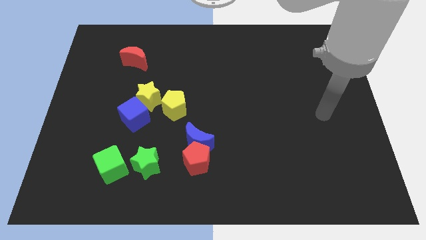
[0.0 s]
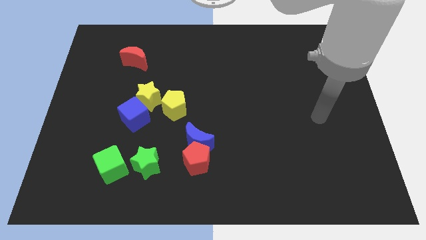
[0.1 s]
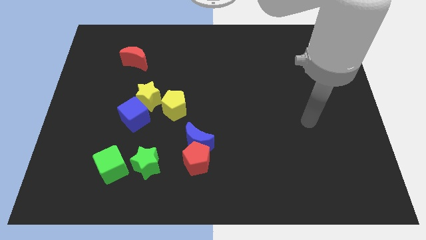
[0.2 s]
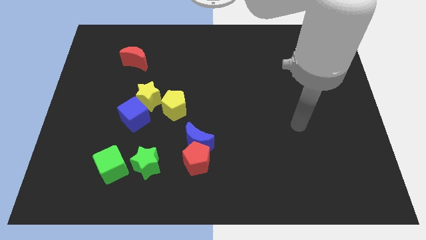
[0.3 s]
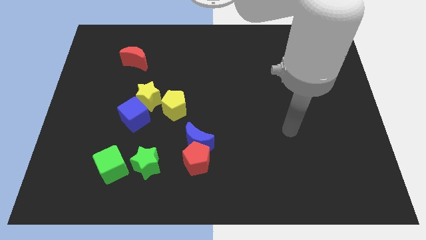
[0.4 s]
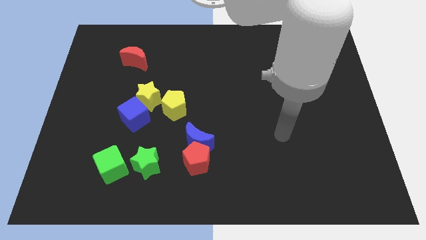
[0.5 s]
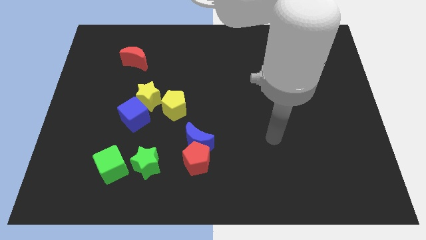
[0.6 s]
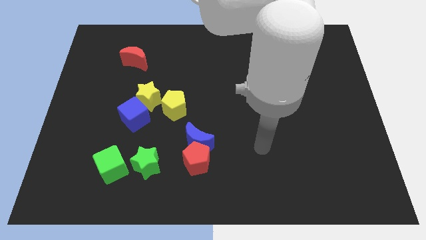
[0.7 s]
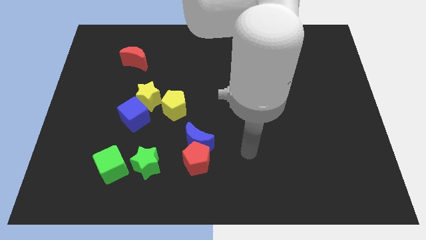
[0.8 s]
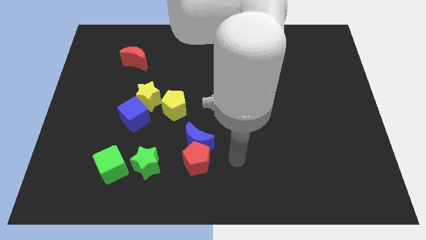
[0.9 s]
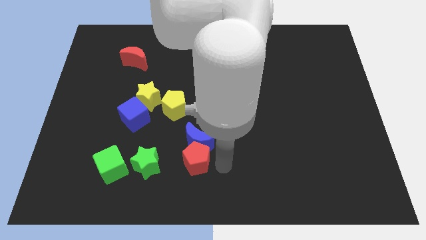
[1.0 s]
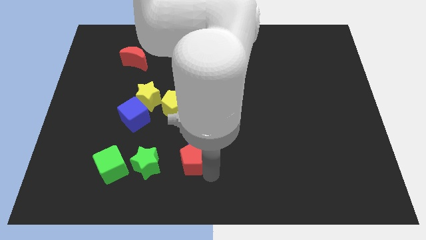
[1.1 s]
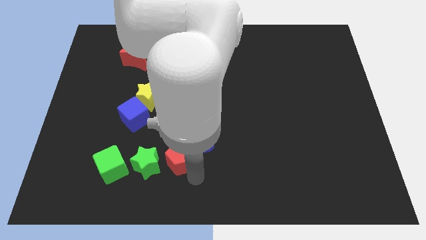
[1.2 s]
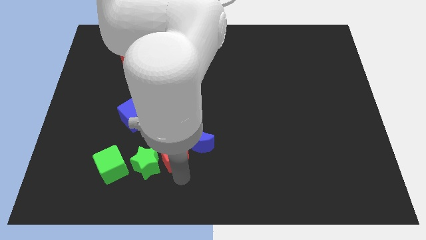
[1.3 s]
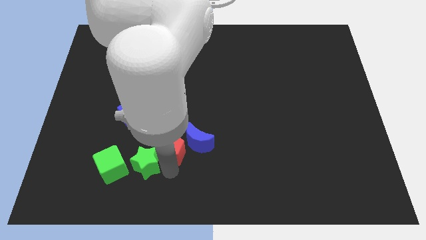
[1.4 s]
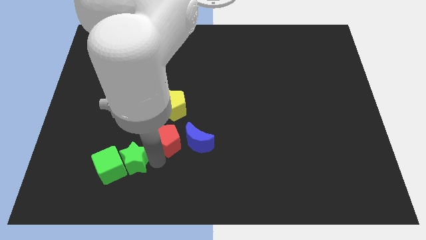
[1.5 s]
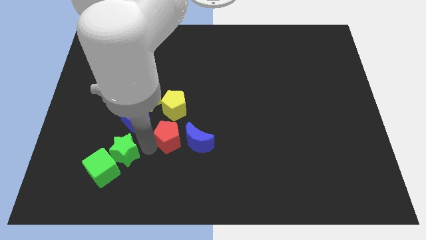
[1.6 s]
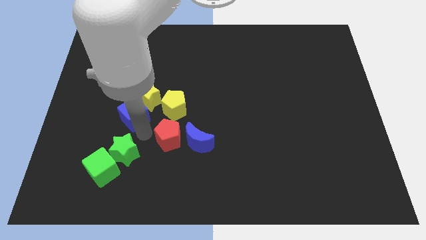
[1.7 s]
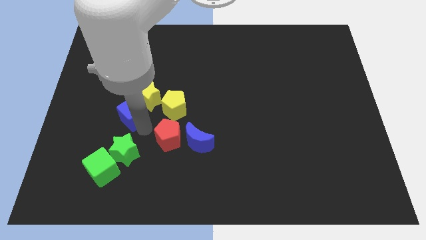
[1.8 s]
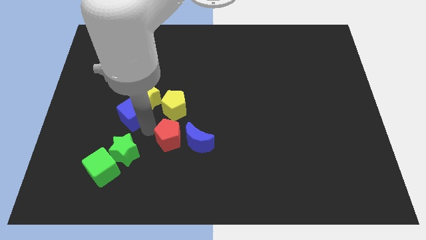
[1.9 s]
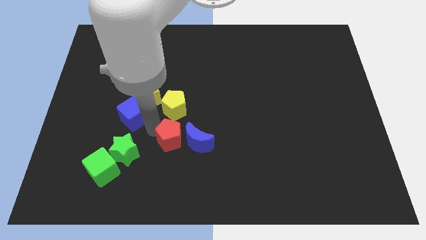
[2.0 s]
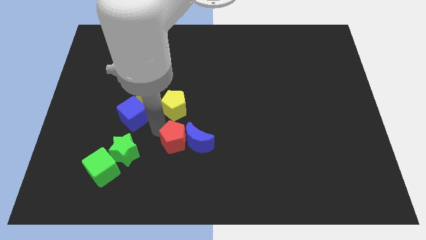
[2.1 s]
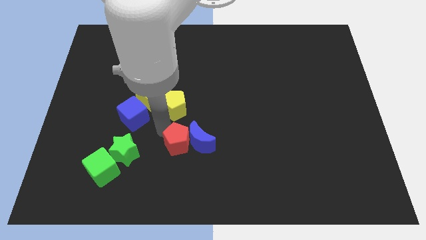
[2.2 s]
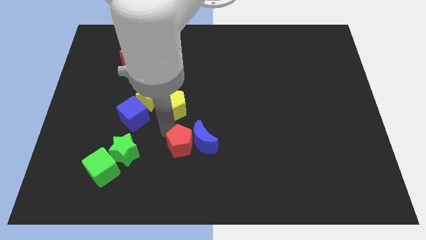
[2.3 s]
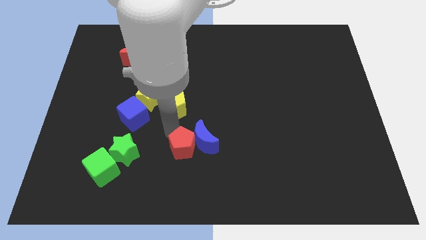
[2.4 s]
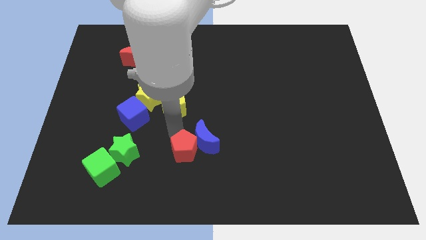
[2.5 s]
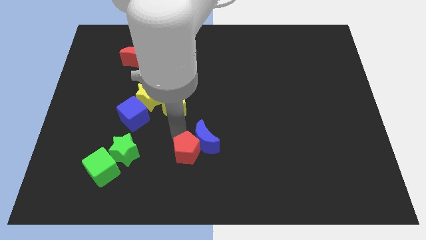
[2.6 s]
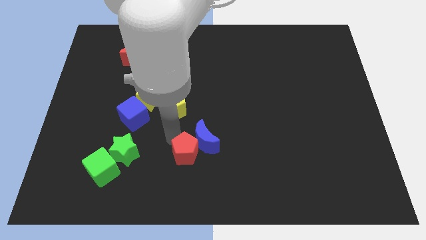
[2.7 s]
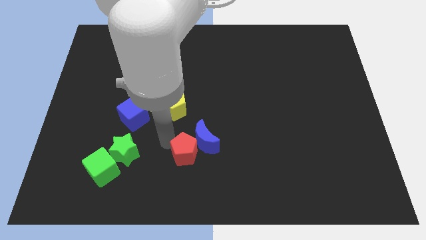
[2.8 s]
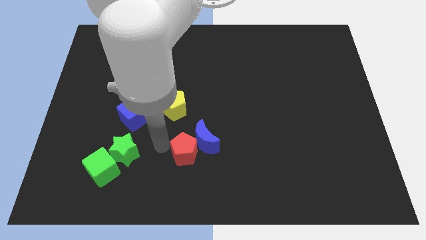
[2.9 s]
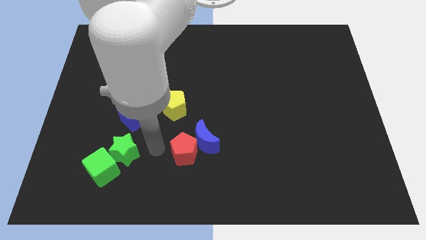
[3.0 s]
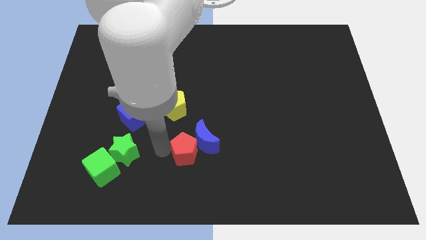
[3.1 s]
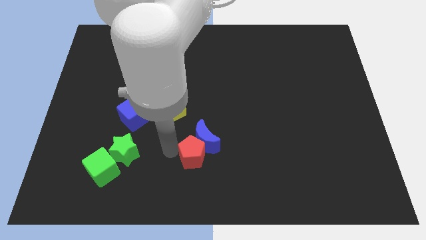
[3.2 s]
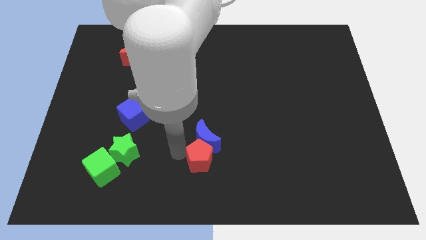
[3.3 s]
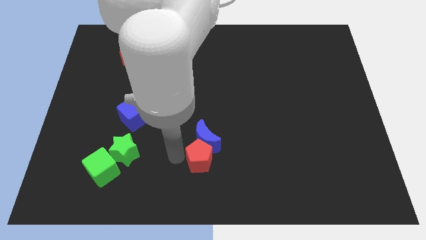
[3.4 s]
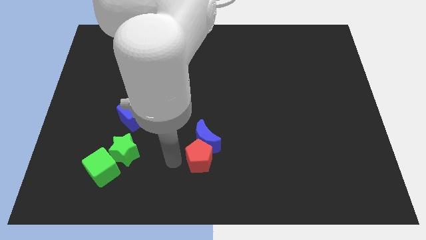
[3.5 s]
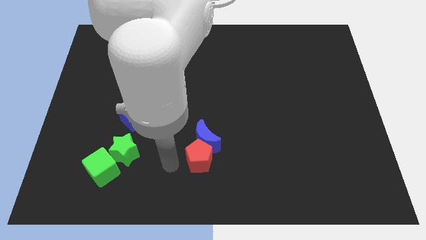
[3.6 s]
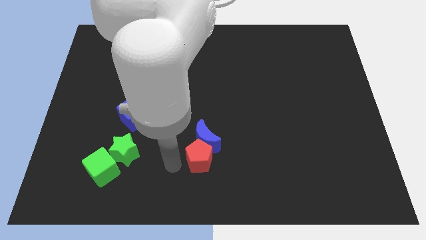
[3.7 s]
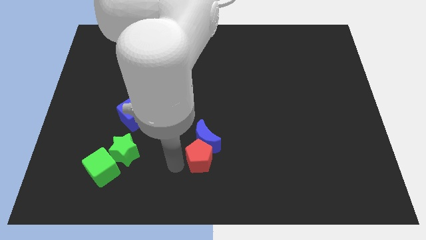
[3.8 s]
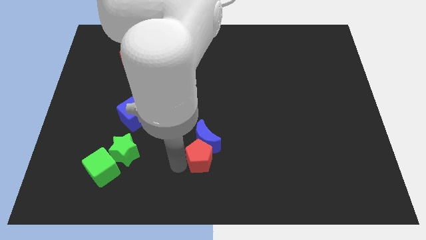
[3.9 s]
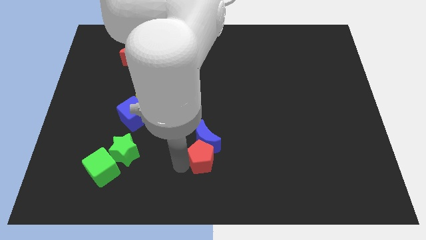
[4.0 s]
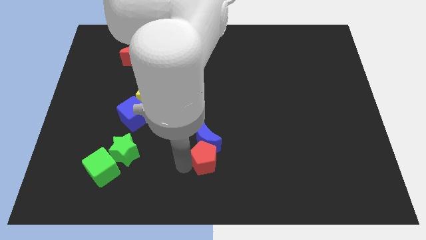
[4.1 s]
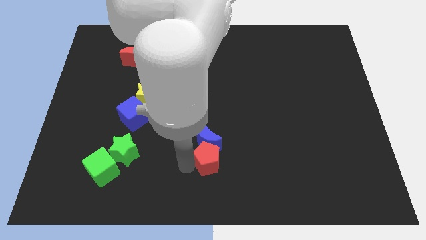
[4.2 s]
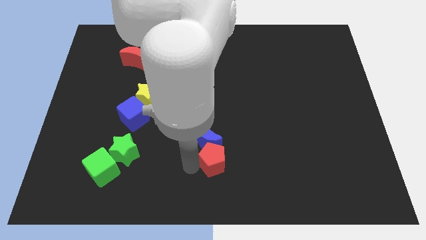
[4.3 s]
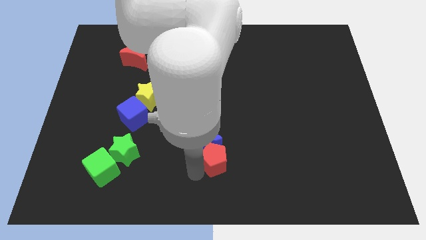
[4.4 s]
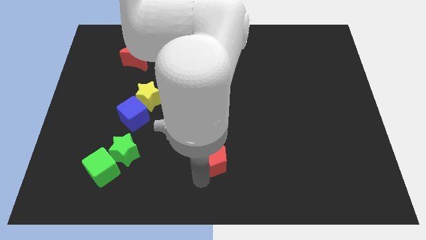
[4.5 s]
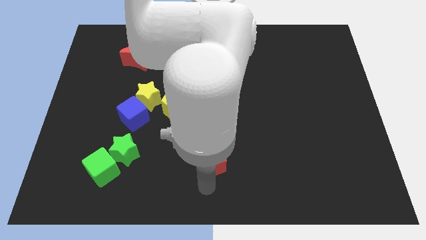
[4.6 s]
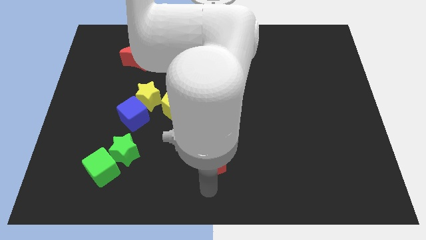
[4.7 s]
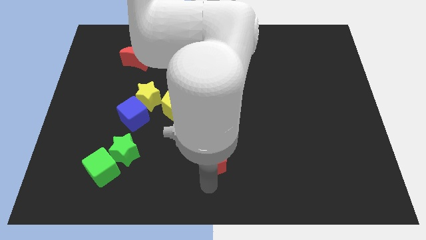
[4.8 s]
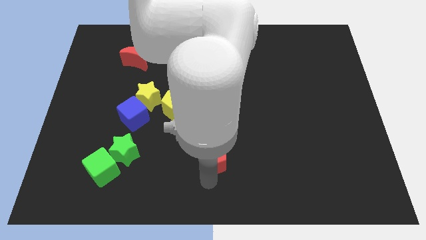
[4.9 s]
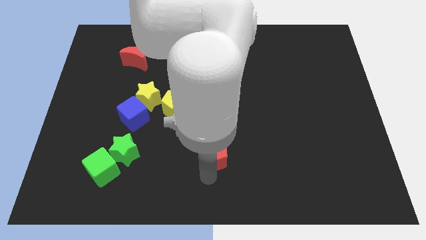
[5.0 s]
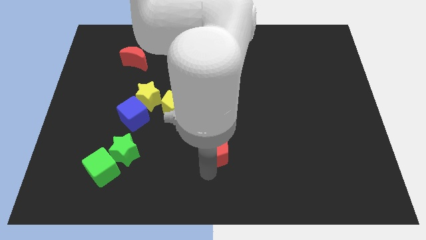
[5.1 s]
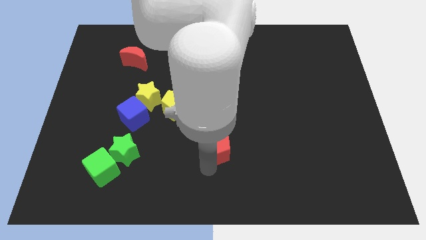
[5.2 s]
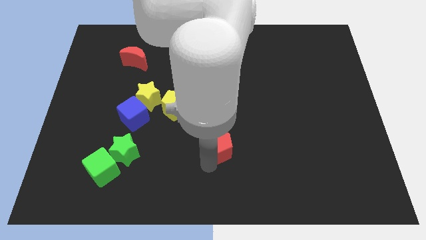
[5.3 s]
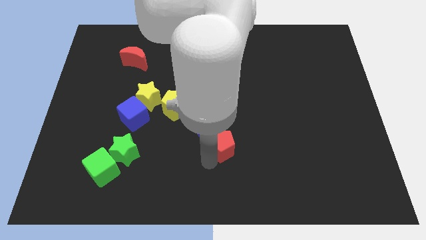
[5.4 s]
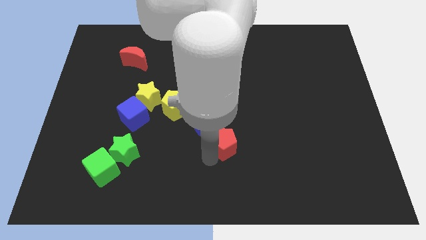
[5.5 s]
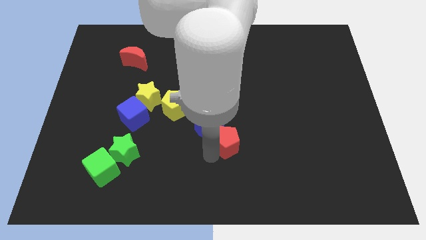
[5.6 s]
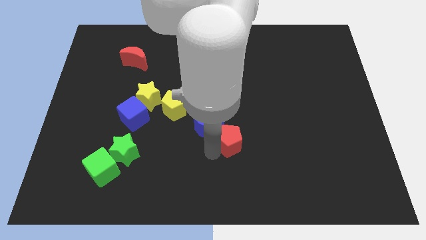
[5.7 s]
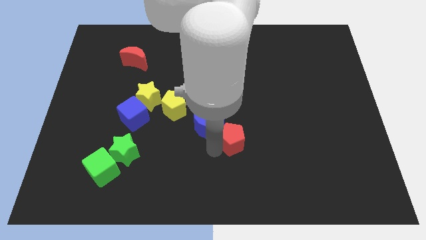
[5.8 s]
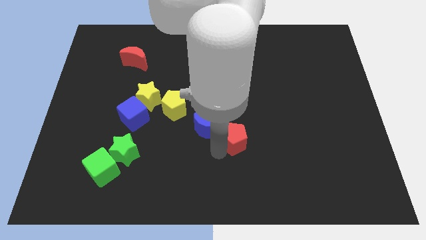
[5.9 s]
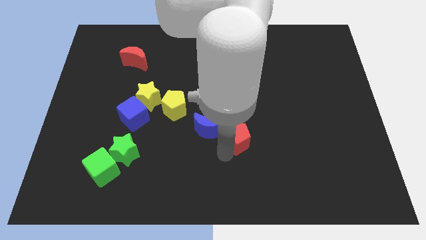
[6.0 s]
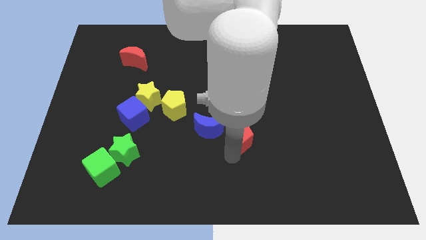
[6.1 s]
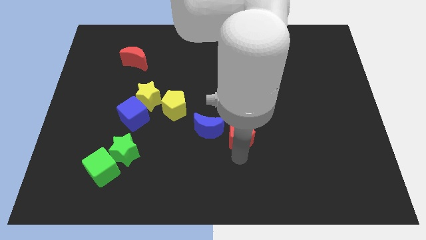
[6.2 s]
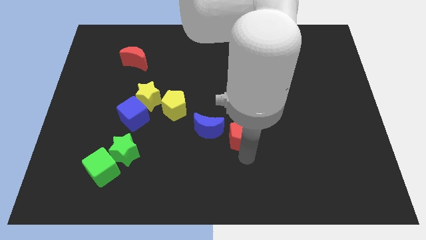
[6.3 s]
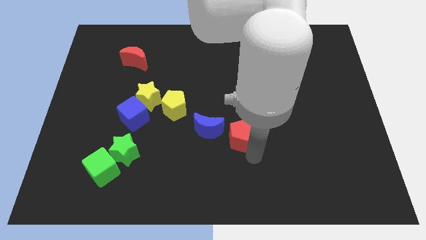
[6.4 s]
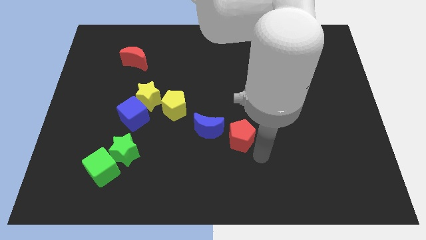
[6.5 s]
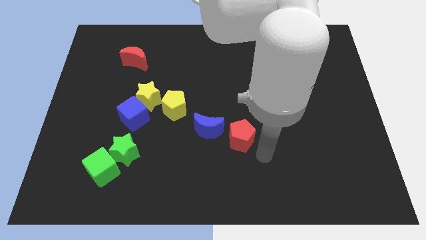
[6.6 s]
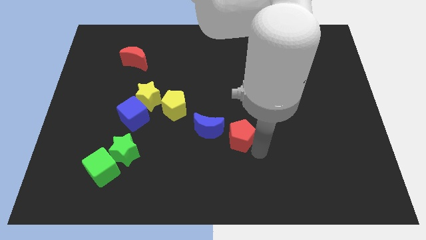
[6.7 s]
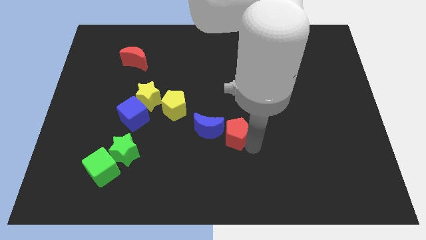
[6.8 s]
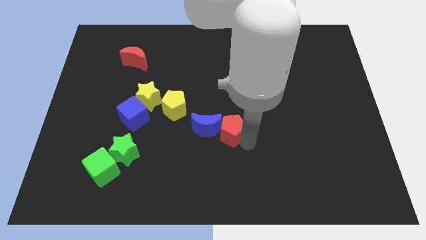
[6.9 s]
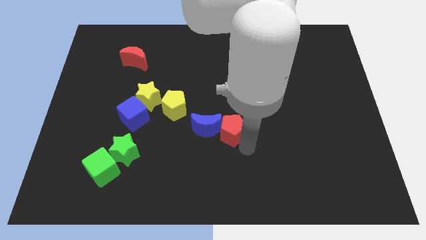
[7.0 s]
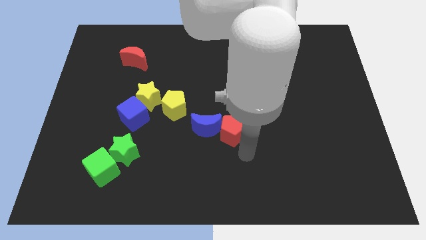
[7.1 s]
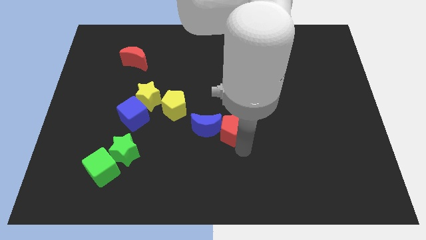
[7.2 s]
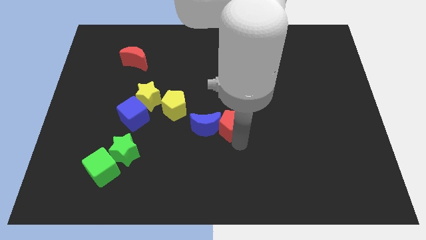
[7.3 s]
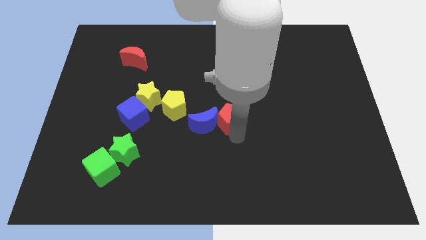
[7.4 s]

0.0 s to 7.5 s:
move the red pentagon to the right side of the yellow pentagon
